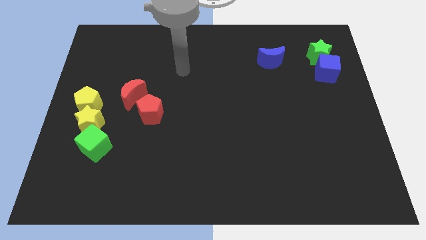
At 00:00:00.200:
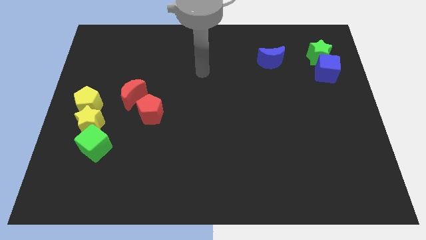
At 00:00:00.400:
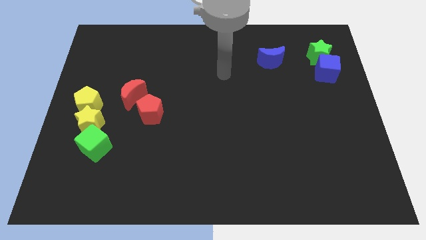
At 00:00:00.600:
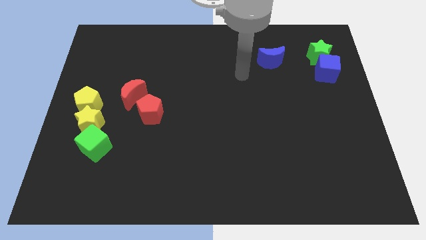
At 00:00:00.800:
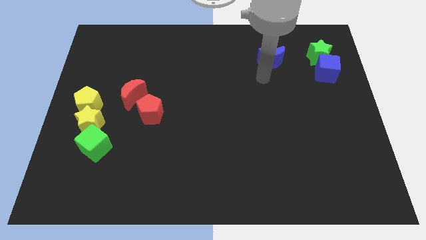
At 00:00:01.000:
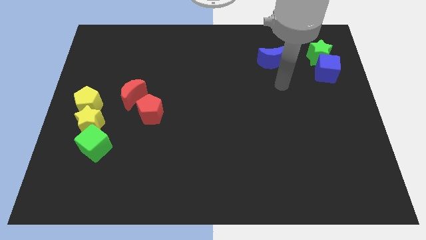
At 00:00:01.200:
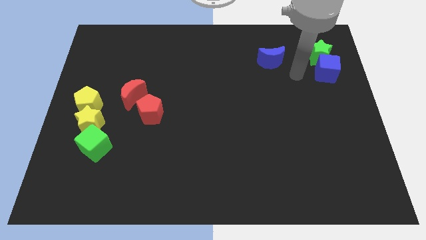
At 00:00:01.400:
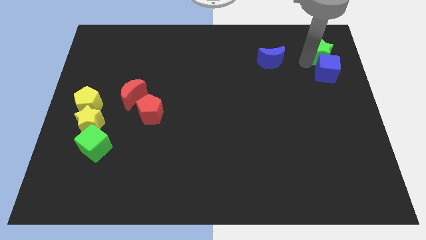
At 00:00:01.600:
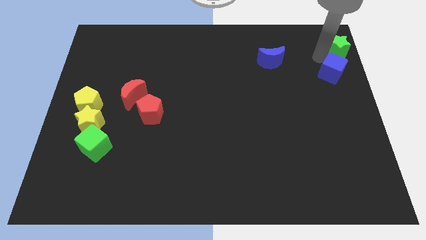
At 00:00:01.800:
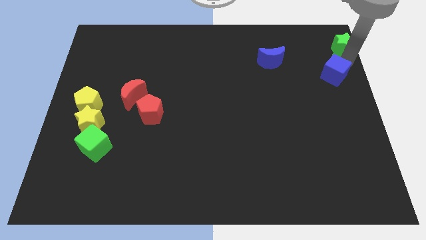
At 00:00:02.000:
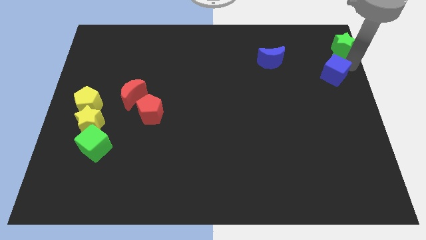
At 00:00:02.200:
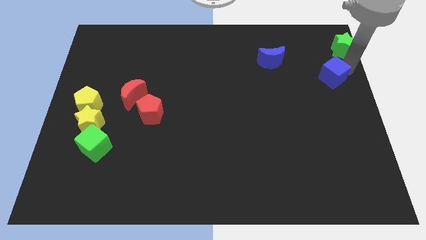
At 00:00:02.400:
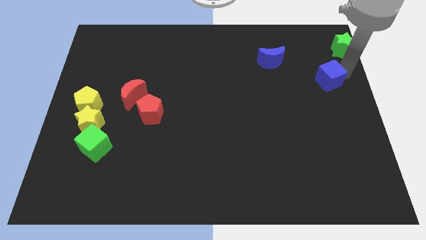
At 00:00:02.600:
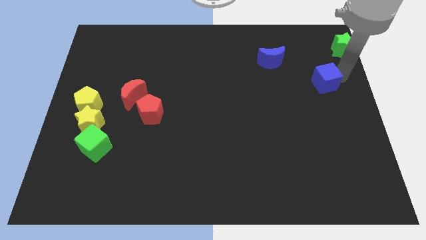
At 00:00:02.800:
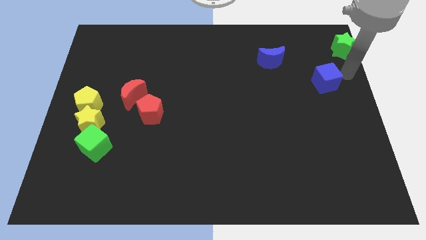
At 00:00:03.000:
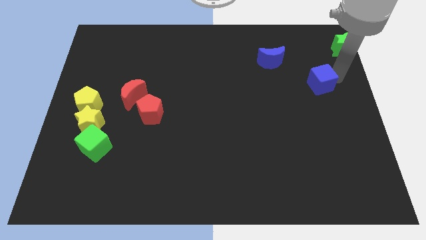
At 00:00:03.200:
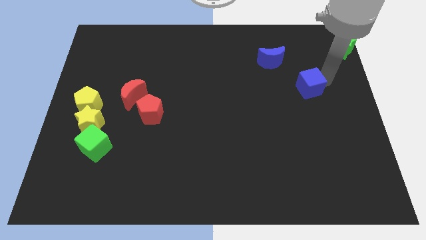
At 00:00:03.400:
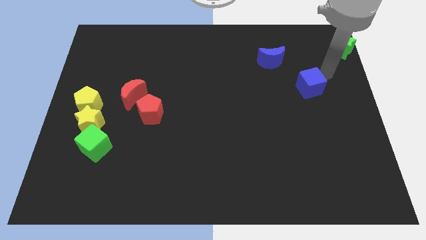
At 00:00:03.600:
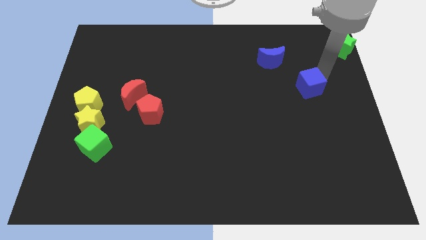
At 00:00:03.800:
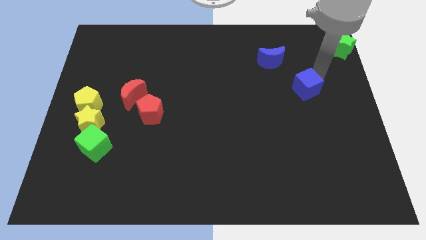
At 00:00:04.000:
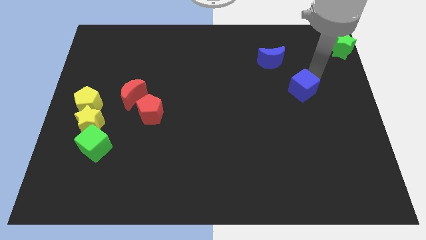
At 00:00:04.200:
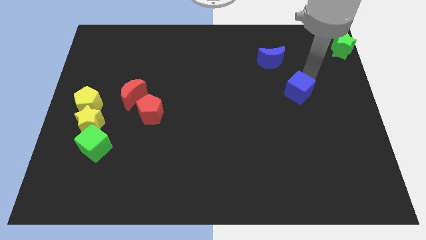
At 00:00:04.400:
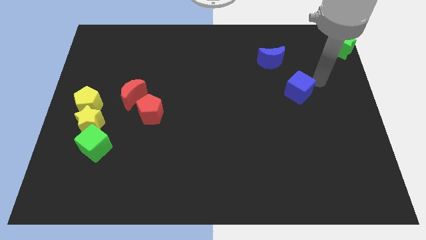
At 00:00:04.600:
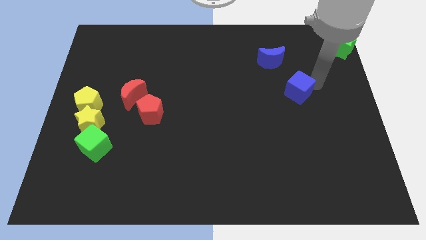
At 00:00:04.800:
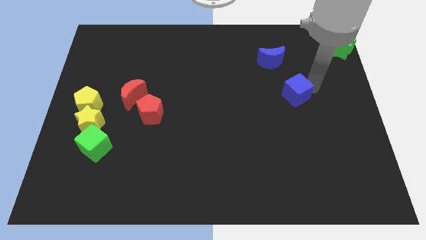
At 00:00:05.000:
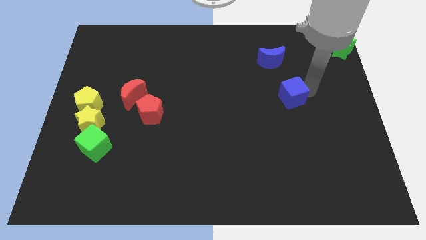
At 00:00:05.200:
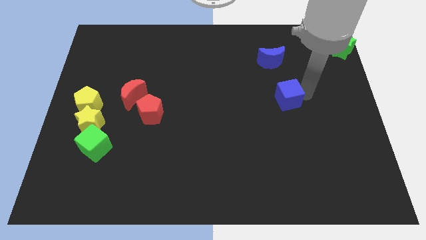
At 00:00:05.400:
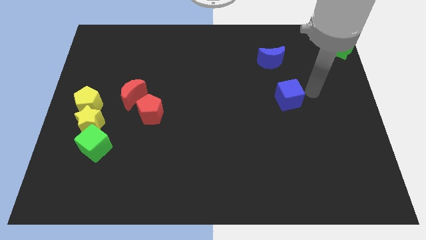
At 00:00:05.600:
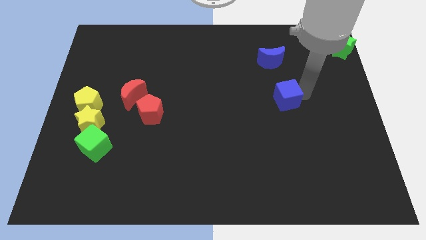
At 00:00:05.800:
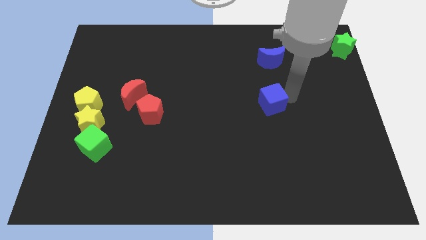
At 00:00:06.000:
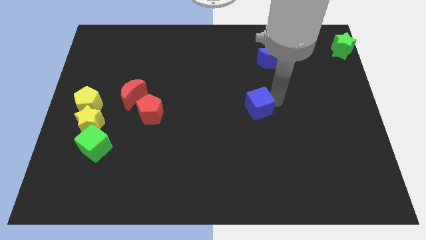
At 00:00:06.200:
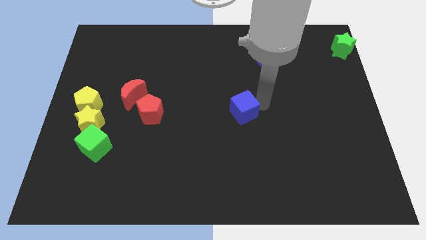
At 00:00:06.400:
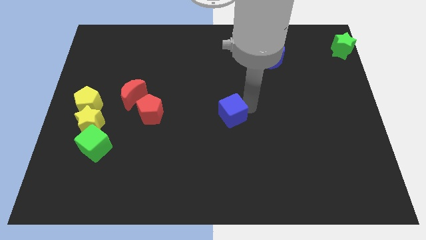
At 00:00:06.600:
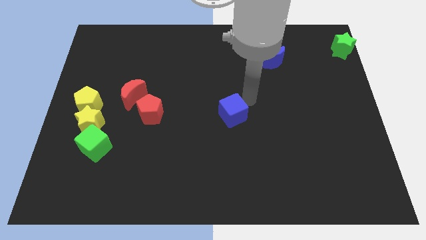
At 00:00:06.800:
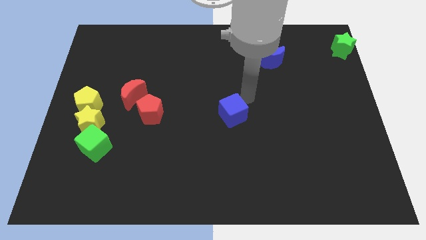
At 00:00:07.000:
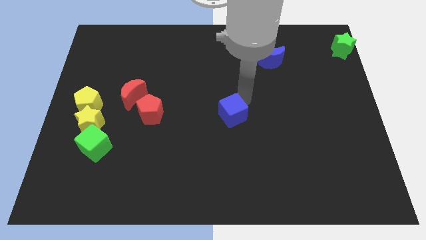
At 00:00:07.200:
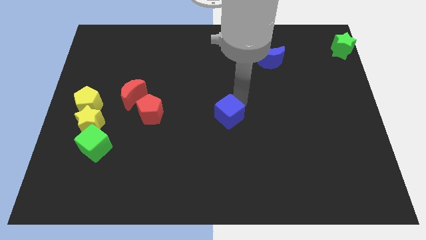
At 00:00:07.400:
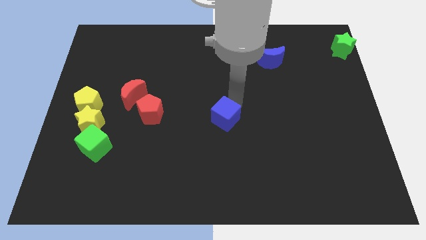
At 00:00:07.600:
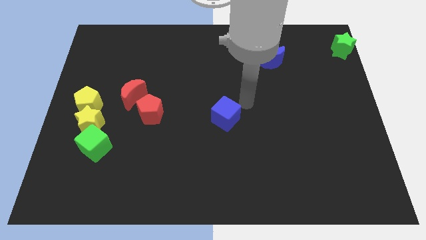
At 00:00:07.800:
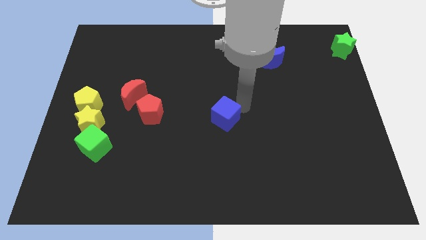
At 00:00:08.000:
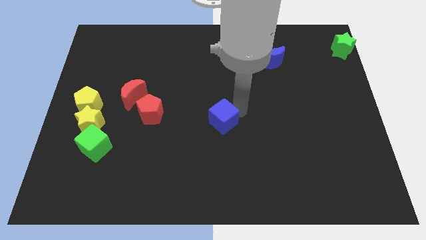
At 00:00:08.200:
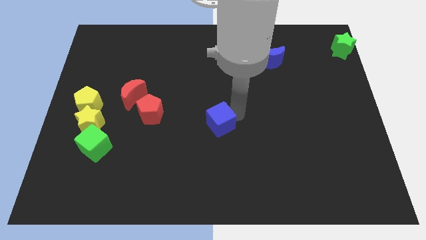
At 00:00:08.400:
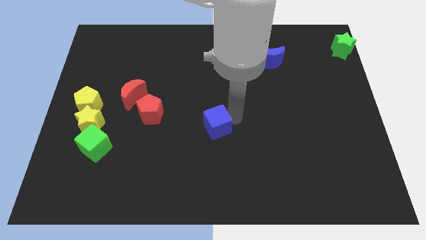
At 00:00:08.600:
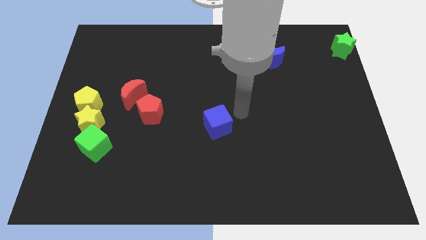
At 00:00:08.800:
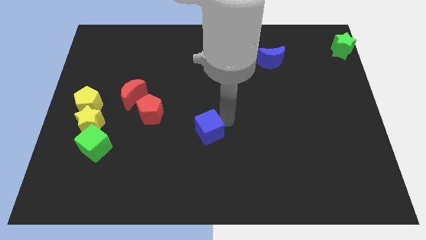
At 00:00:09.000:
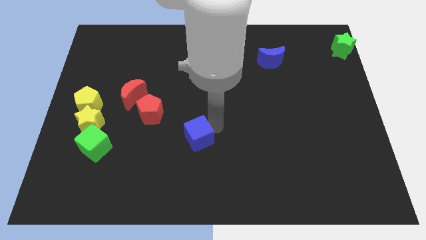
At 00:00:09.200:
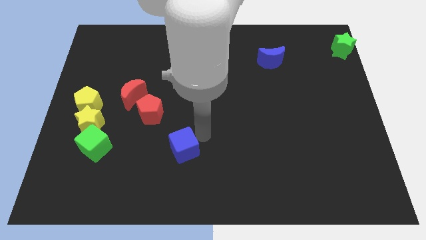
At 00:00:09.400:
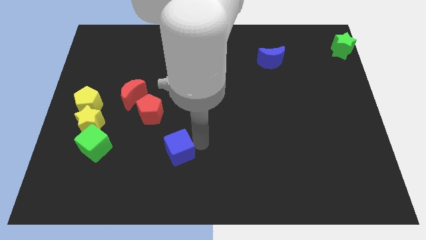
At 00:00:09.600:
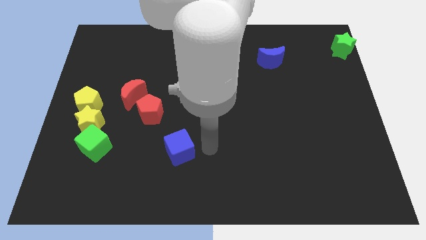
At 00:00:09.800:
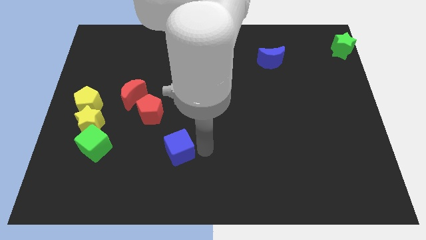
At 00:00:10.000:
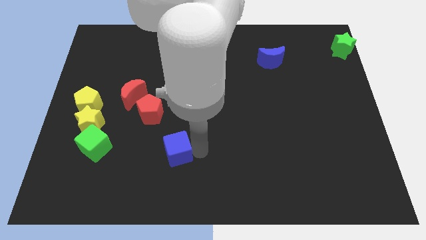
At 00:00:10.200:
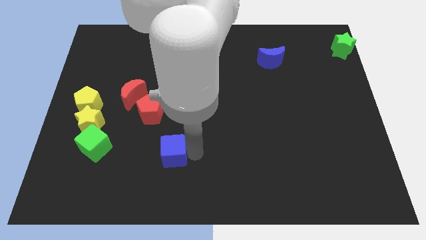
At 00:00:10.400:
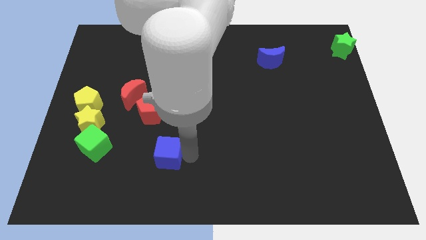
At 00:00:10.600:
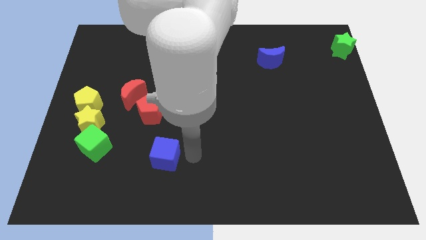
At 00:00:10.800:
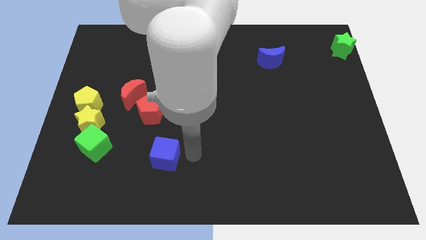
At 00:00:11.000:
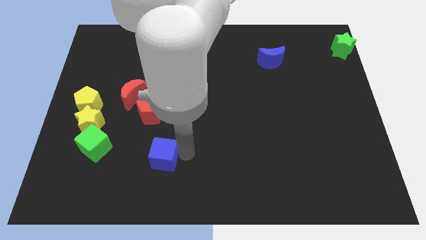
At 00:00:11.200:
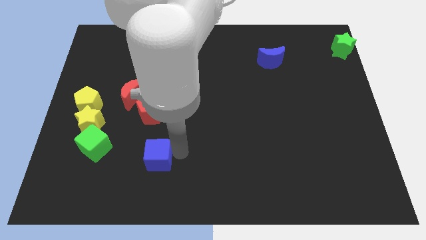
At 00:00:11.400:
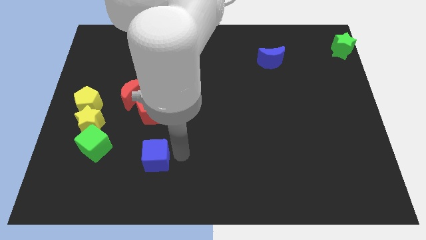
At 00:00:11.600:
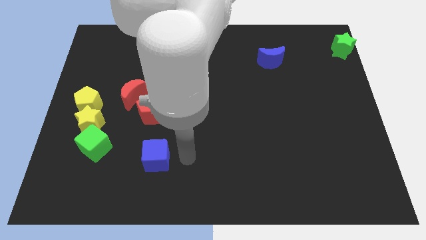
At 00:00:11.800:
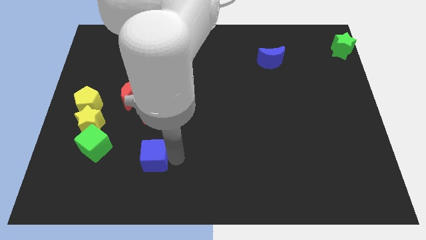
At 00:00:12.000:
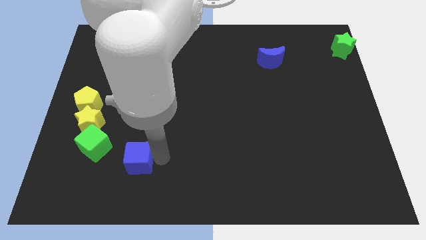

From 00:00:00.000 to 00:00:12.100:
put the blue cube to the bottom right side of the green cube

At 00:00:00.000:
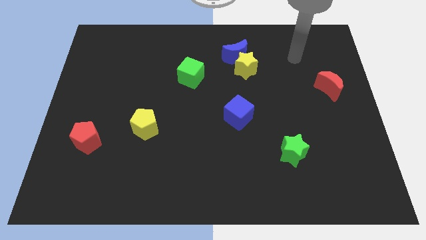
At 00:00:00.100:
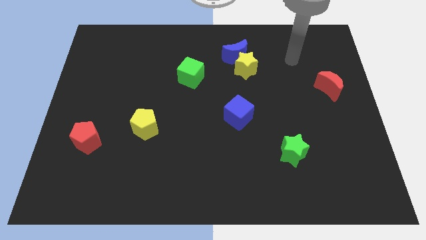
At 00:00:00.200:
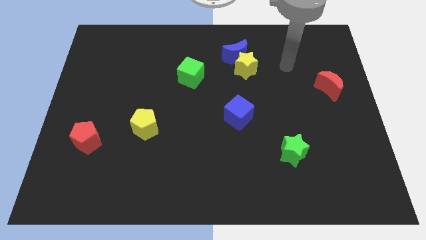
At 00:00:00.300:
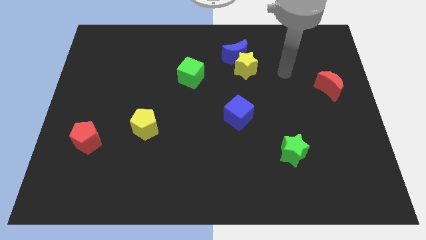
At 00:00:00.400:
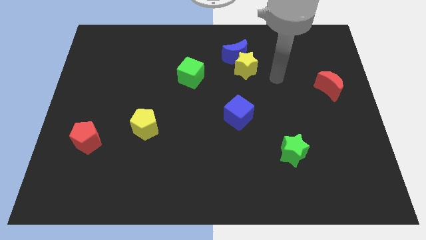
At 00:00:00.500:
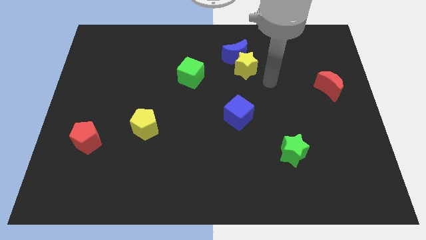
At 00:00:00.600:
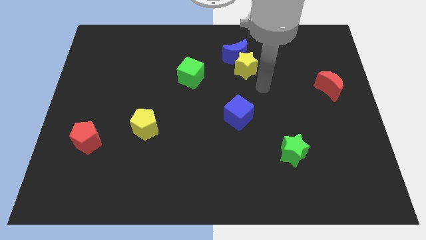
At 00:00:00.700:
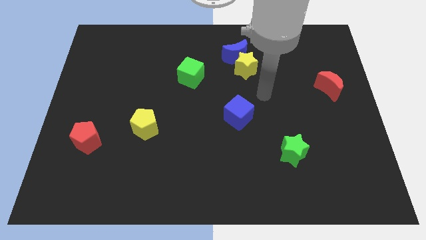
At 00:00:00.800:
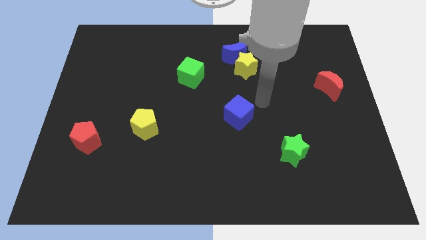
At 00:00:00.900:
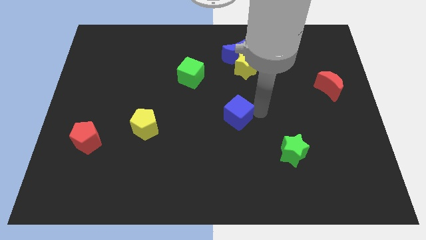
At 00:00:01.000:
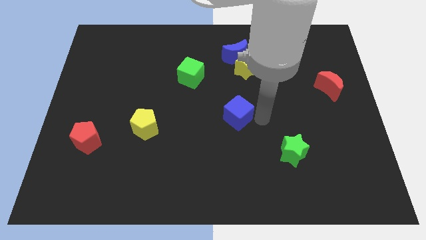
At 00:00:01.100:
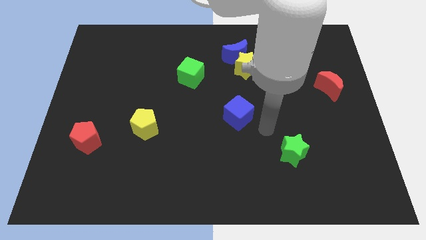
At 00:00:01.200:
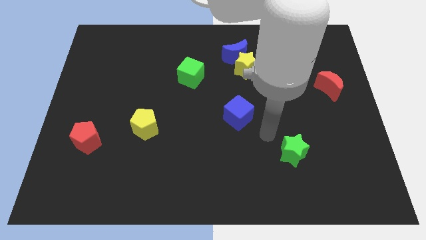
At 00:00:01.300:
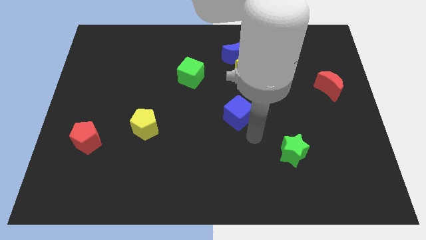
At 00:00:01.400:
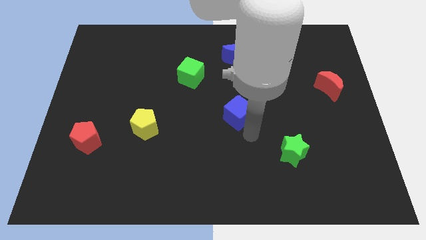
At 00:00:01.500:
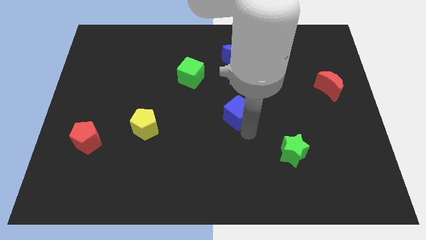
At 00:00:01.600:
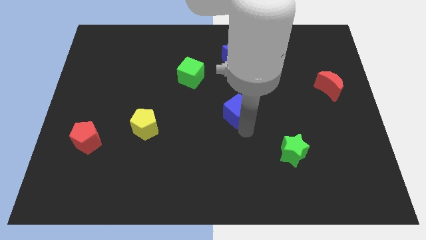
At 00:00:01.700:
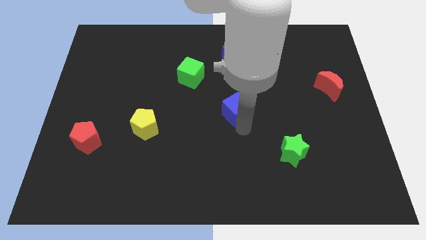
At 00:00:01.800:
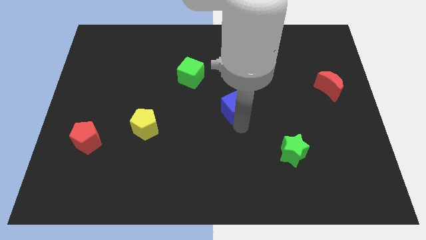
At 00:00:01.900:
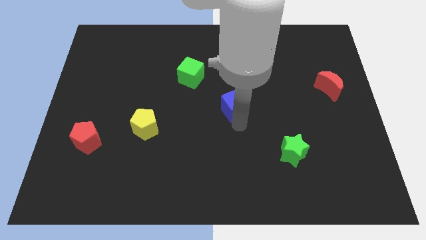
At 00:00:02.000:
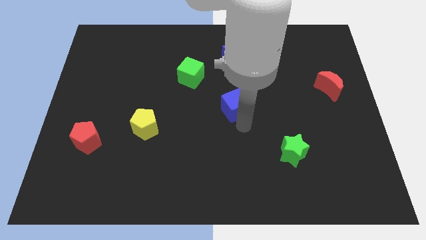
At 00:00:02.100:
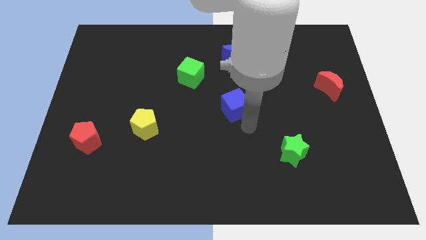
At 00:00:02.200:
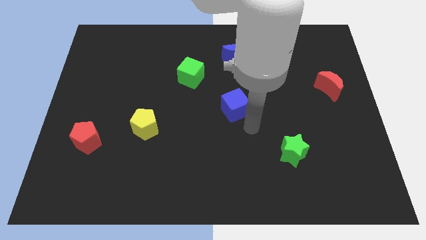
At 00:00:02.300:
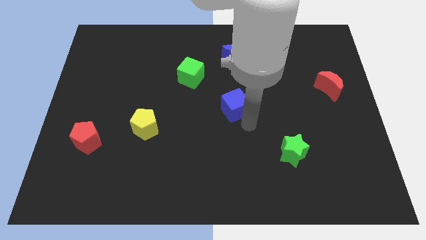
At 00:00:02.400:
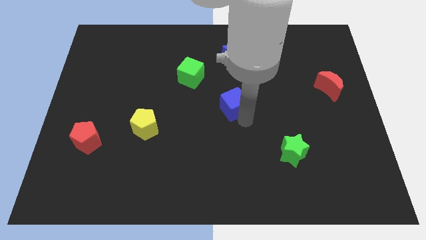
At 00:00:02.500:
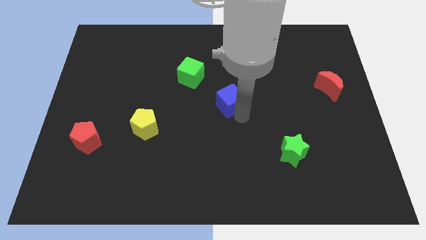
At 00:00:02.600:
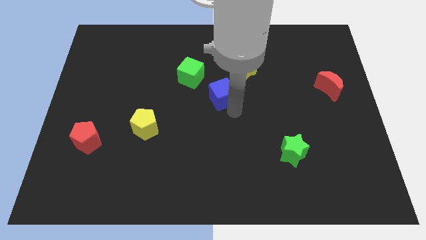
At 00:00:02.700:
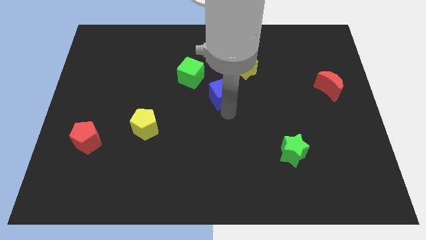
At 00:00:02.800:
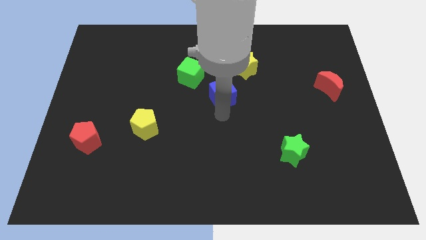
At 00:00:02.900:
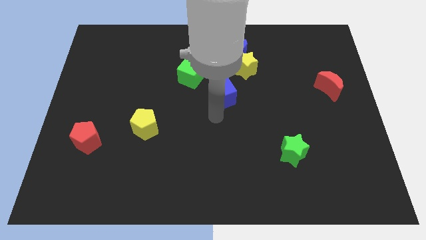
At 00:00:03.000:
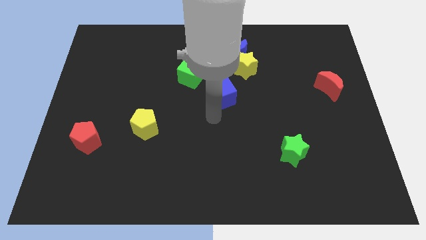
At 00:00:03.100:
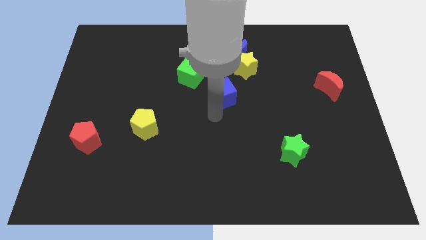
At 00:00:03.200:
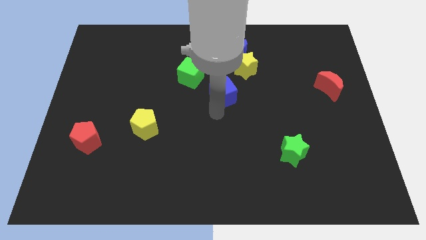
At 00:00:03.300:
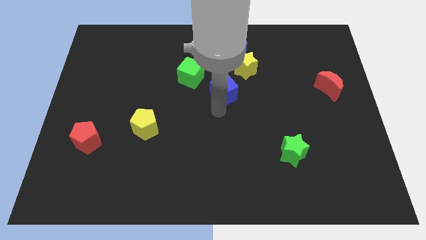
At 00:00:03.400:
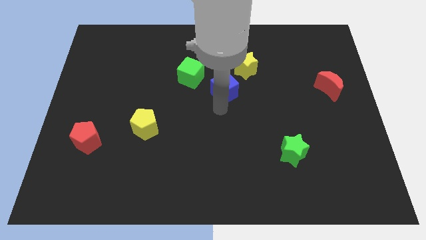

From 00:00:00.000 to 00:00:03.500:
put the blue cube to the right side of the green cube
